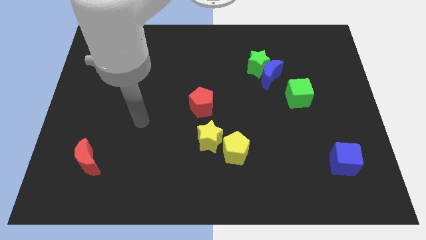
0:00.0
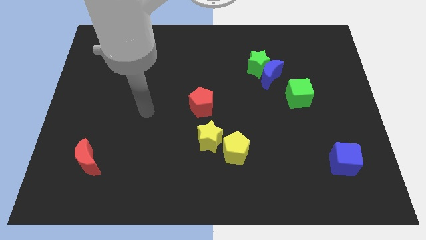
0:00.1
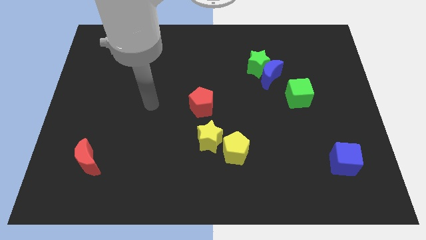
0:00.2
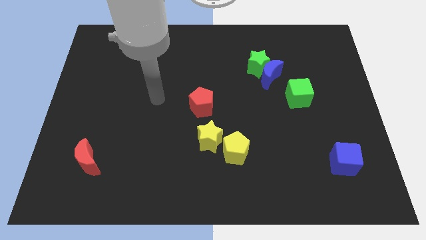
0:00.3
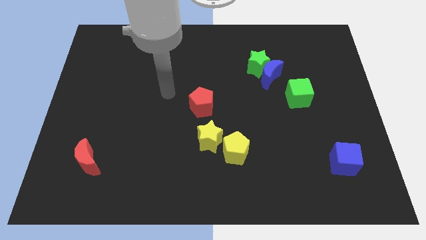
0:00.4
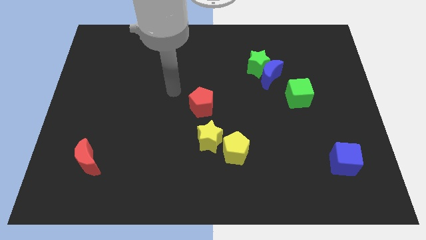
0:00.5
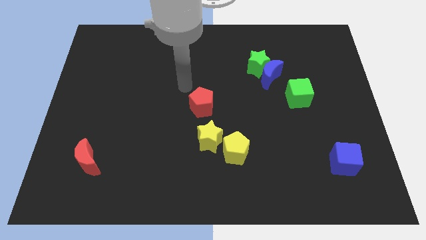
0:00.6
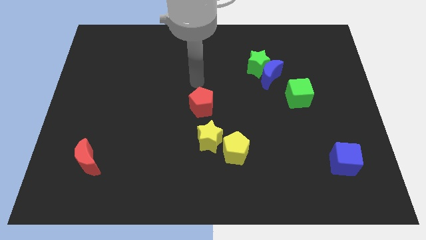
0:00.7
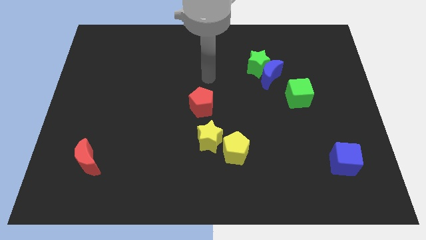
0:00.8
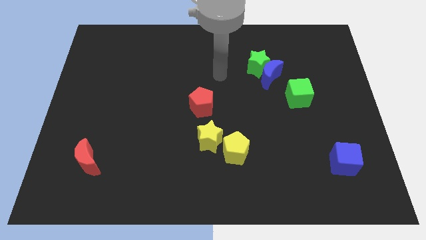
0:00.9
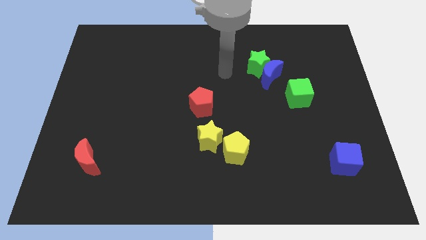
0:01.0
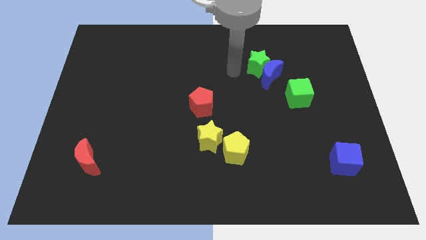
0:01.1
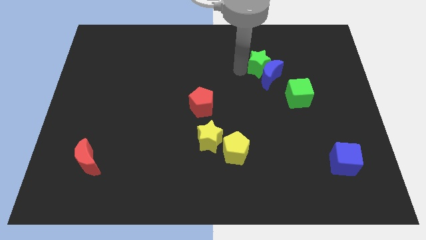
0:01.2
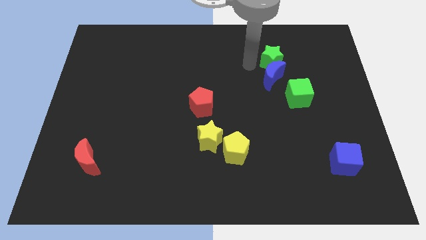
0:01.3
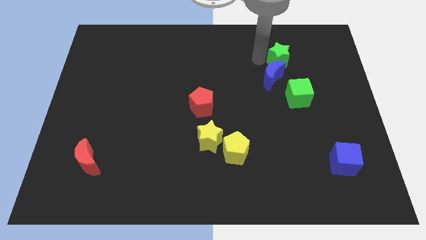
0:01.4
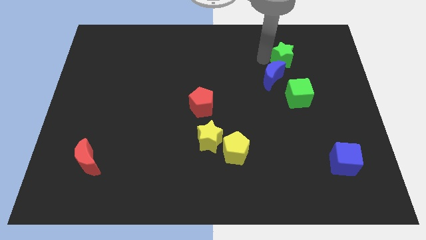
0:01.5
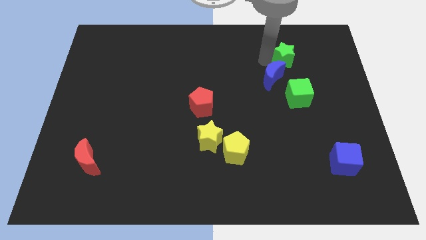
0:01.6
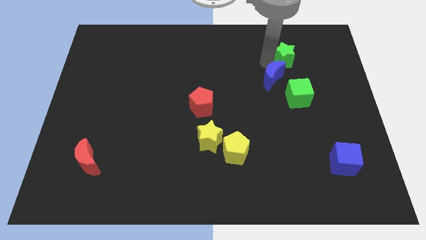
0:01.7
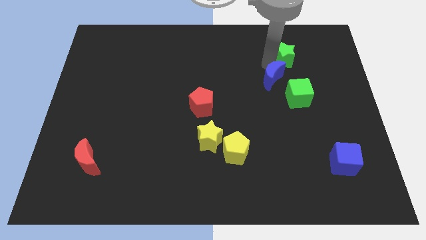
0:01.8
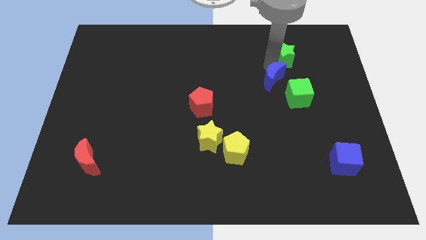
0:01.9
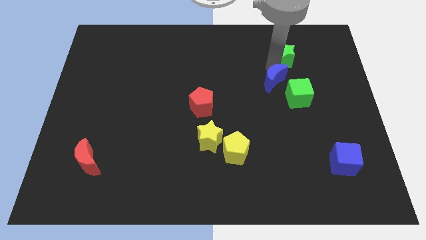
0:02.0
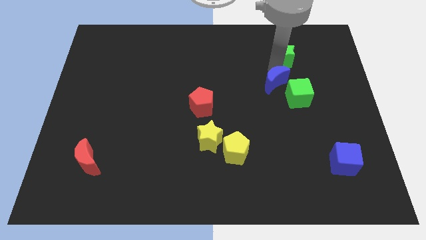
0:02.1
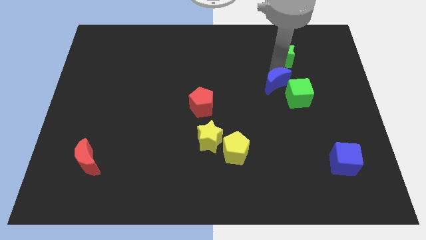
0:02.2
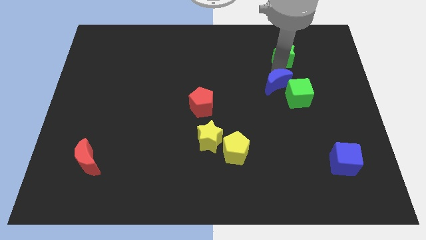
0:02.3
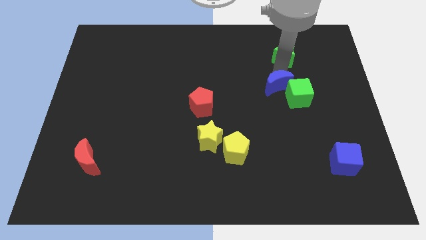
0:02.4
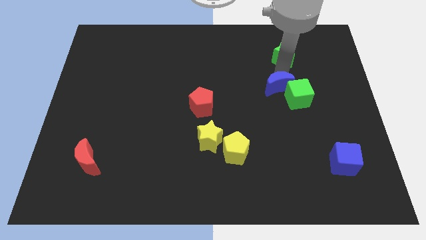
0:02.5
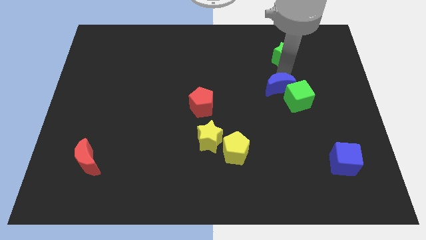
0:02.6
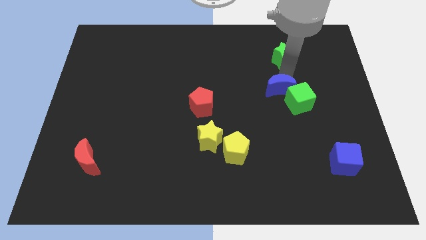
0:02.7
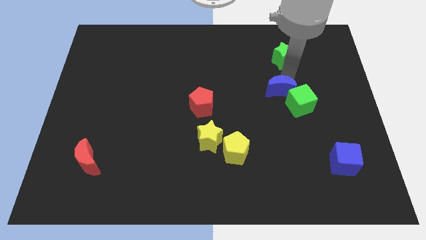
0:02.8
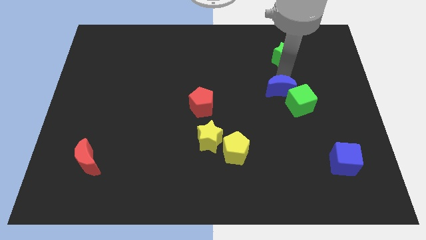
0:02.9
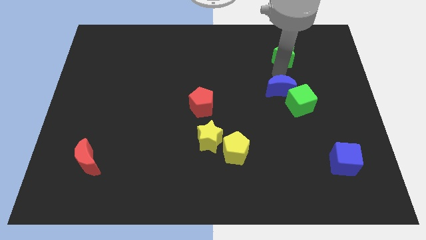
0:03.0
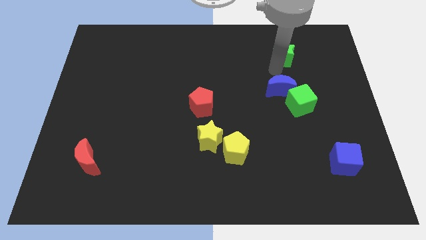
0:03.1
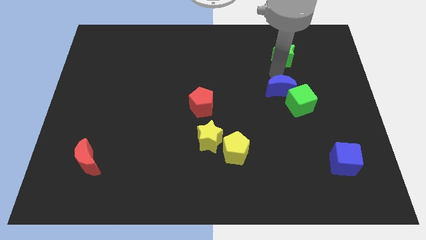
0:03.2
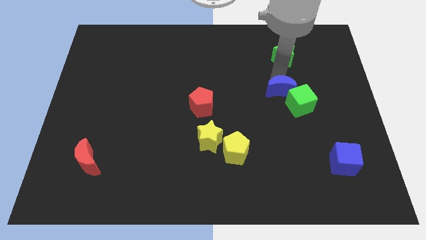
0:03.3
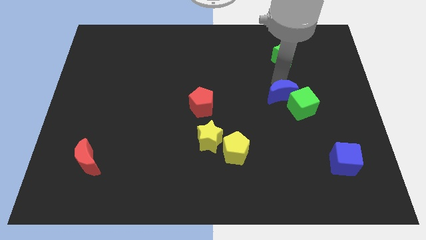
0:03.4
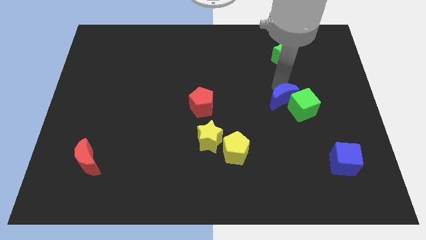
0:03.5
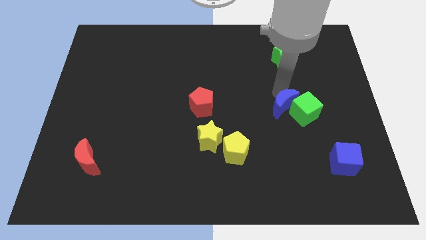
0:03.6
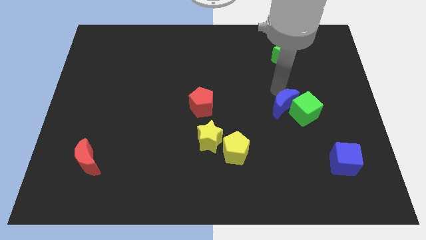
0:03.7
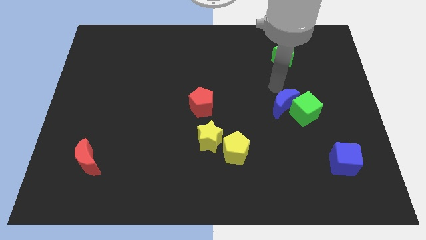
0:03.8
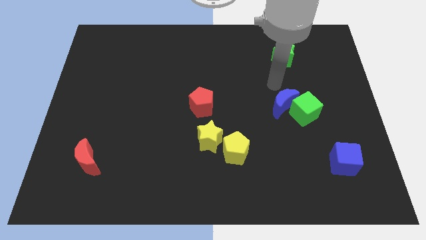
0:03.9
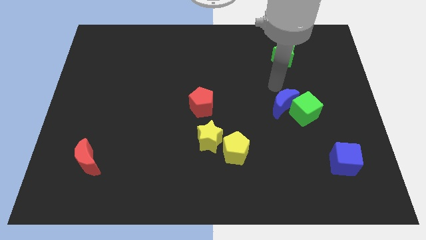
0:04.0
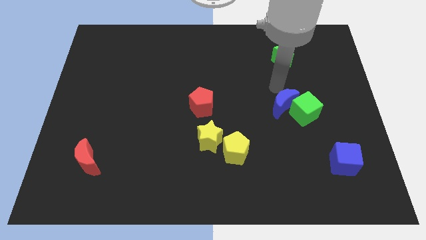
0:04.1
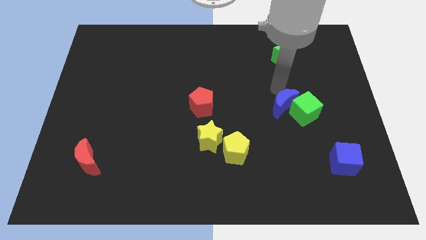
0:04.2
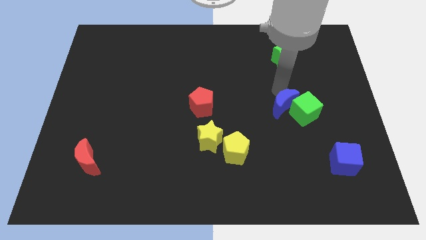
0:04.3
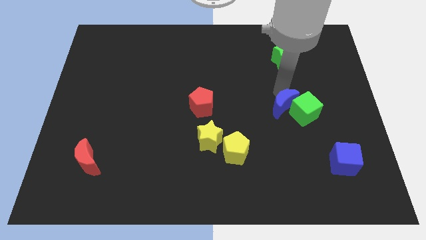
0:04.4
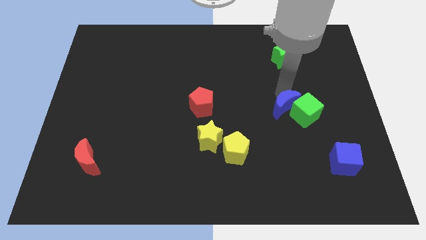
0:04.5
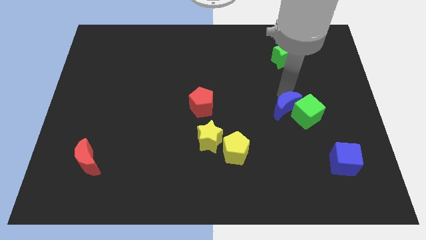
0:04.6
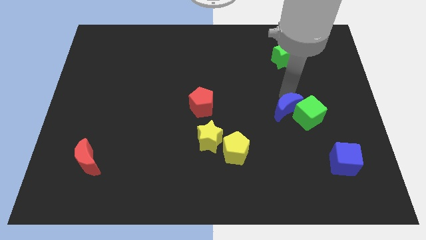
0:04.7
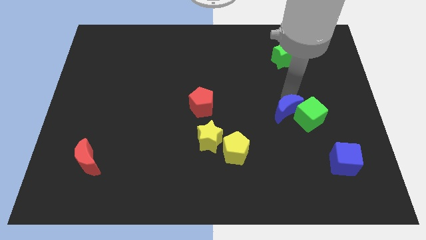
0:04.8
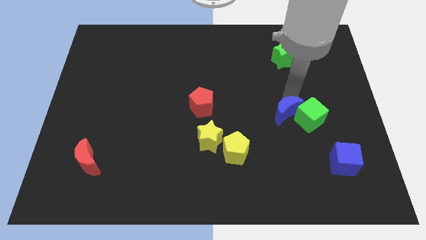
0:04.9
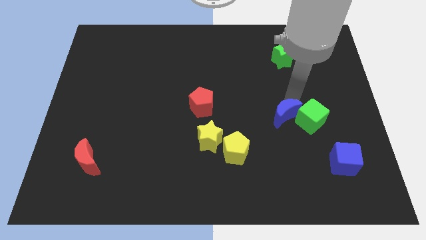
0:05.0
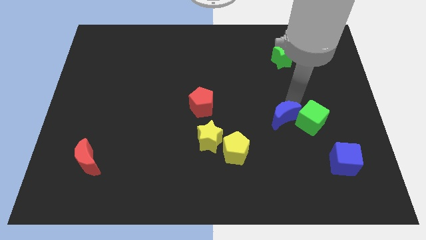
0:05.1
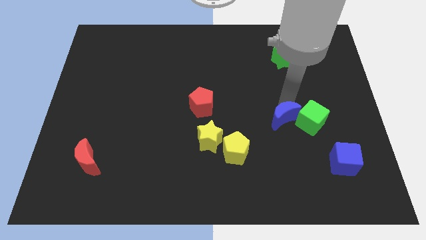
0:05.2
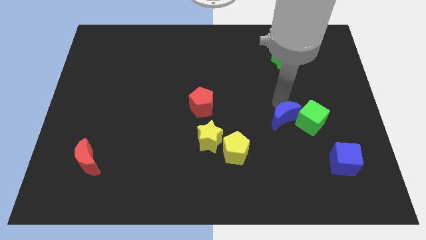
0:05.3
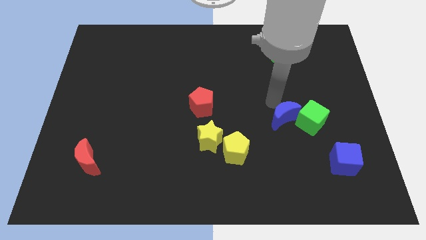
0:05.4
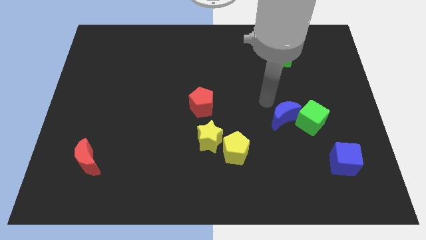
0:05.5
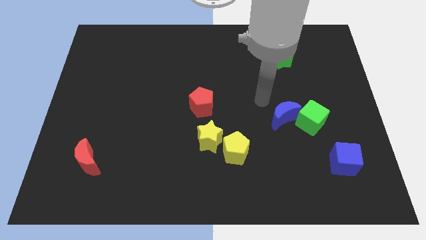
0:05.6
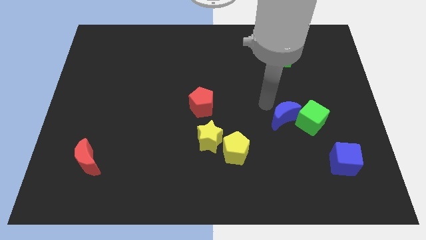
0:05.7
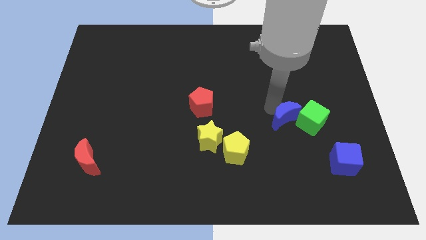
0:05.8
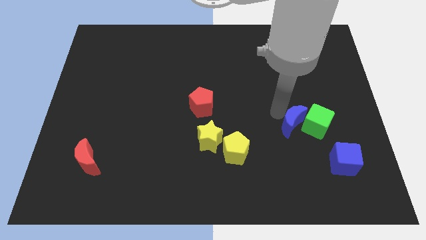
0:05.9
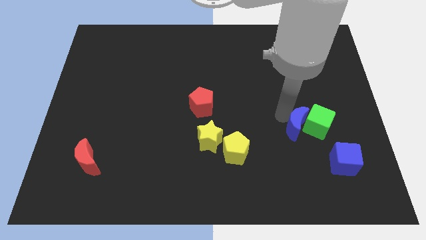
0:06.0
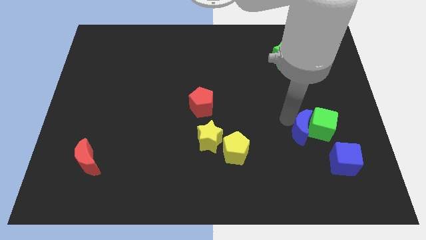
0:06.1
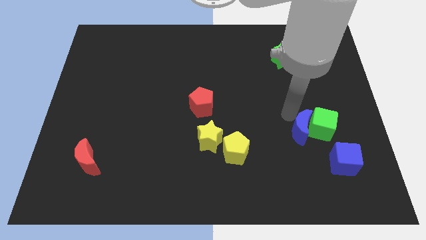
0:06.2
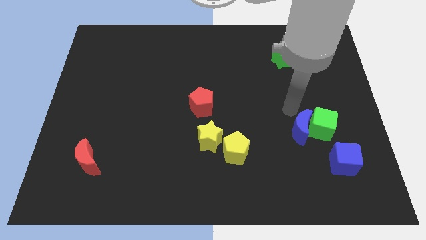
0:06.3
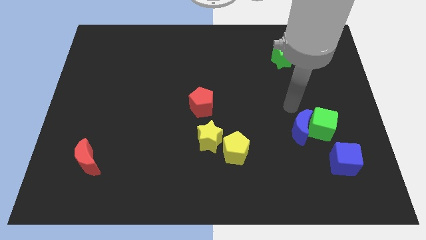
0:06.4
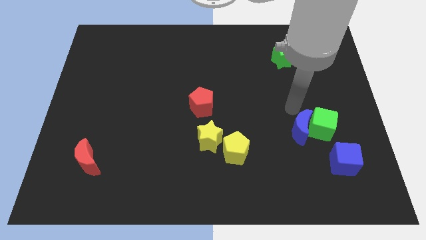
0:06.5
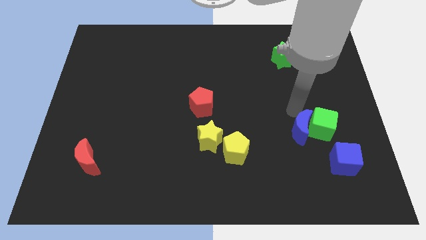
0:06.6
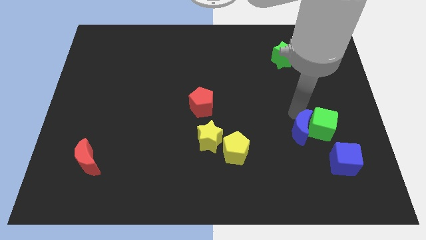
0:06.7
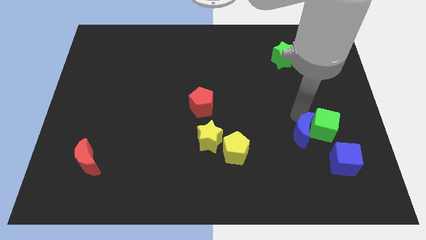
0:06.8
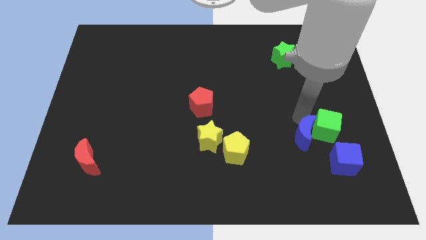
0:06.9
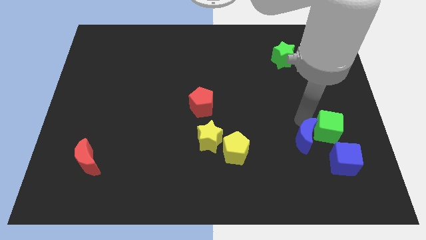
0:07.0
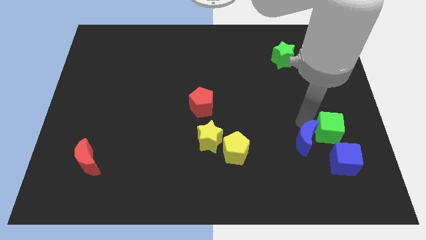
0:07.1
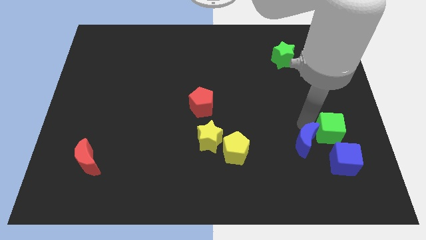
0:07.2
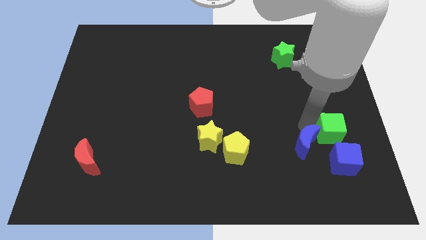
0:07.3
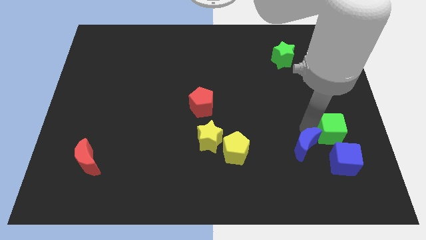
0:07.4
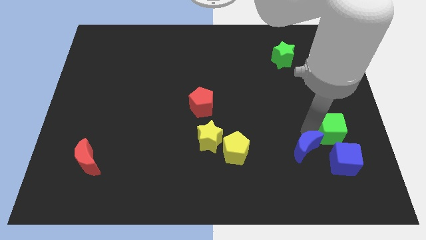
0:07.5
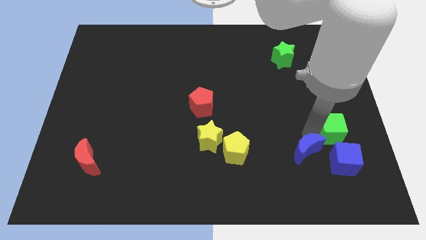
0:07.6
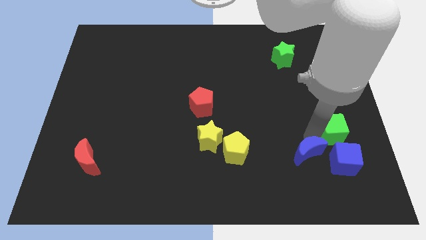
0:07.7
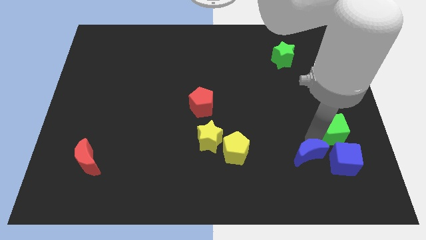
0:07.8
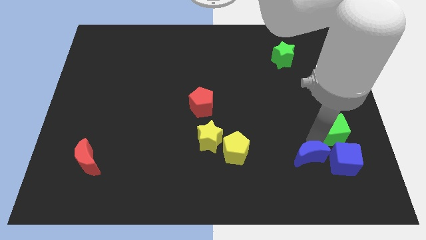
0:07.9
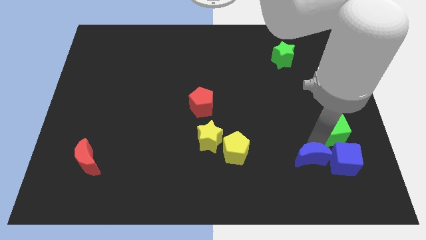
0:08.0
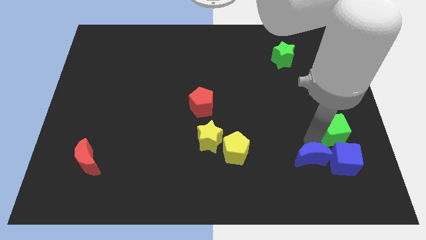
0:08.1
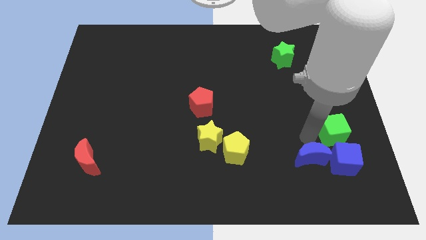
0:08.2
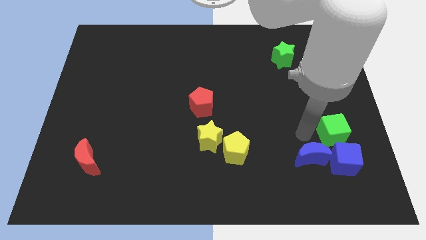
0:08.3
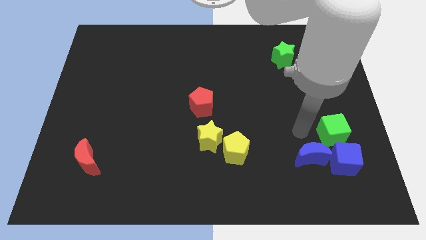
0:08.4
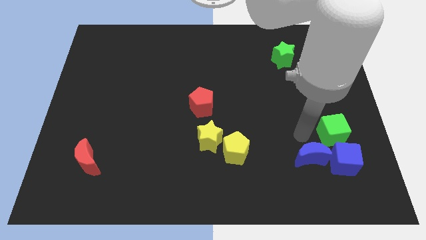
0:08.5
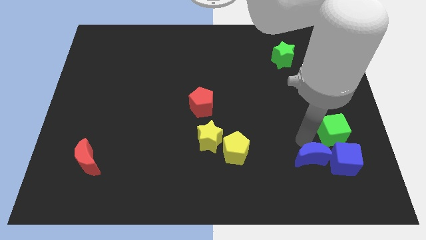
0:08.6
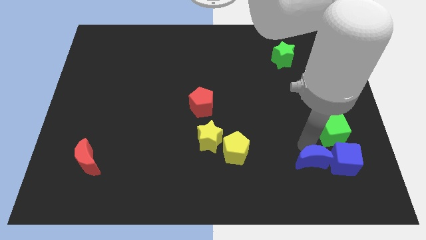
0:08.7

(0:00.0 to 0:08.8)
move the blue moon to the bottom left side of the blue cube
